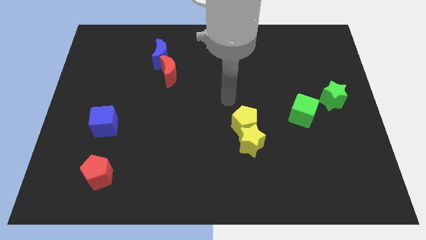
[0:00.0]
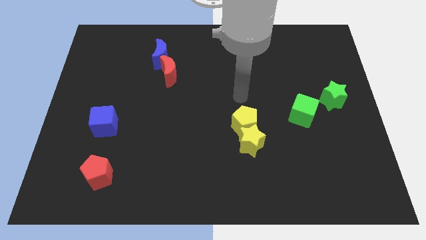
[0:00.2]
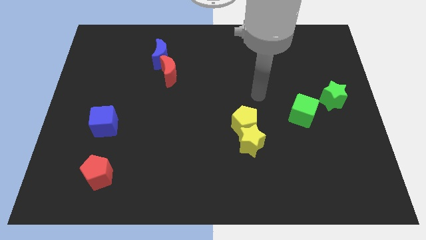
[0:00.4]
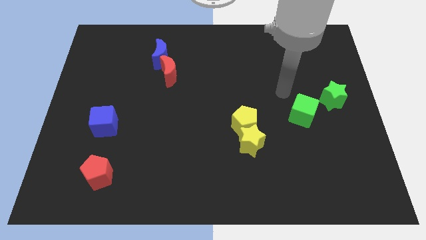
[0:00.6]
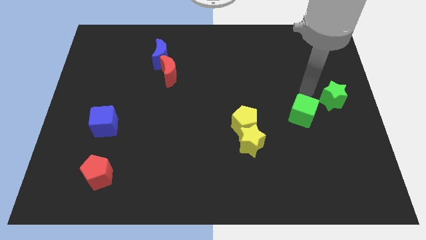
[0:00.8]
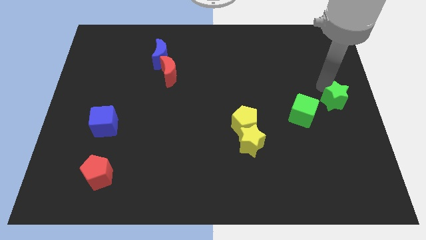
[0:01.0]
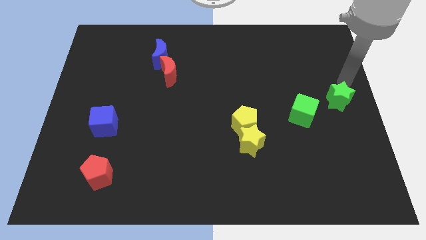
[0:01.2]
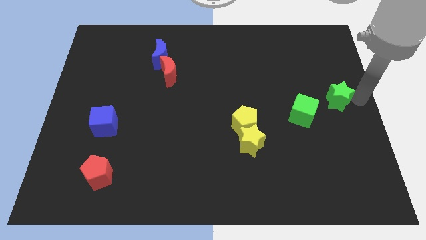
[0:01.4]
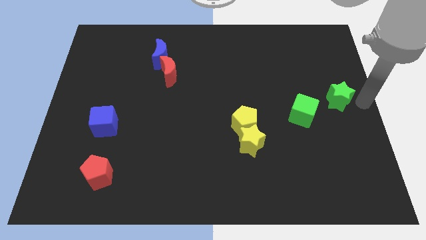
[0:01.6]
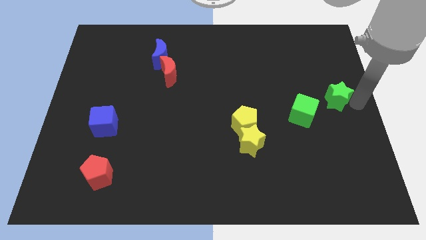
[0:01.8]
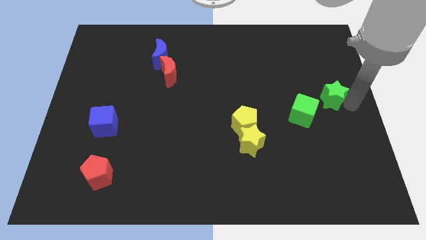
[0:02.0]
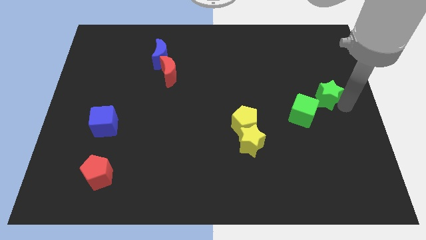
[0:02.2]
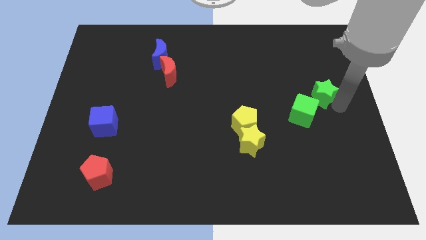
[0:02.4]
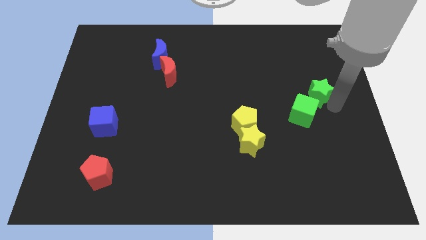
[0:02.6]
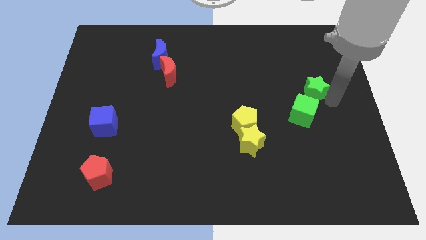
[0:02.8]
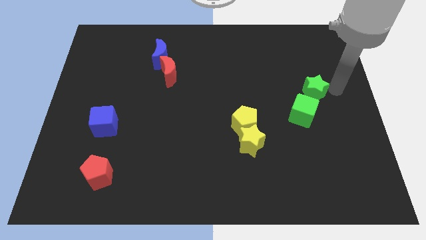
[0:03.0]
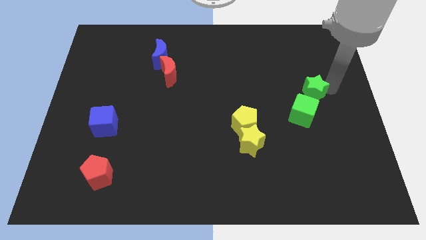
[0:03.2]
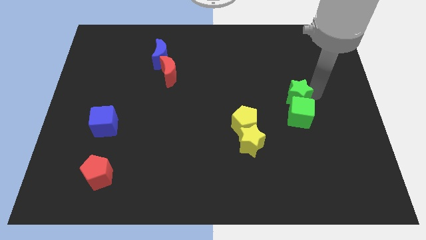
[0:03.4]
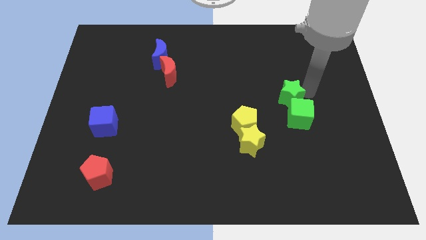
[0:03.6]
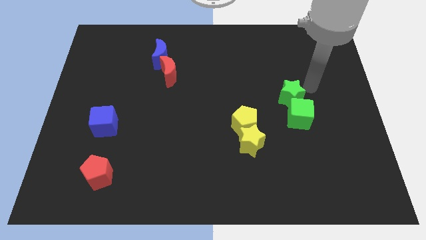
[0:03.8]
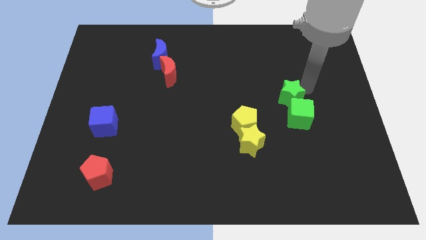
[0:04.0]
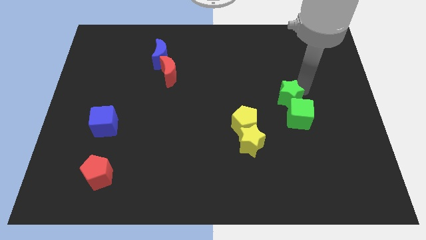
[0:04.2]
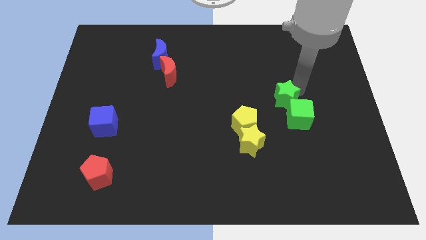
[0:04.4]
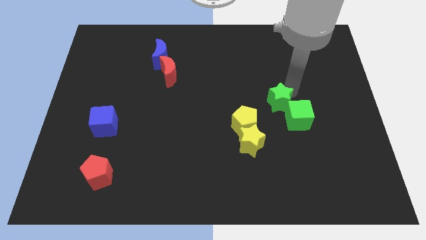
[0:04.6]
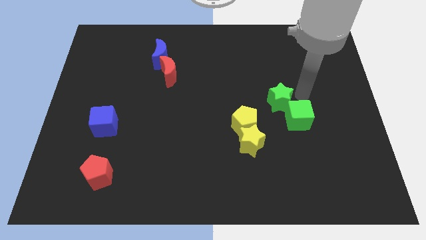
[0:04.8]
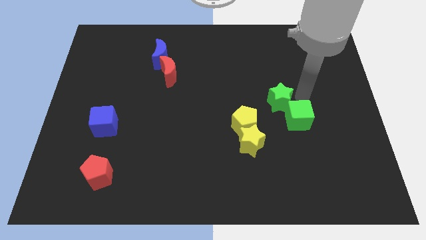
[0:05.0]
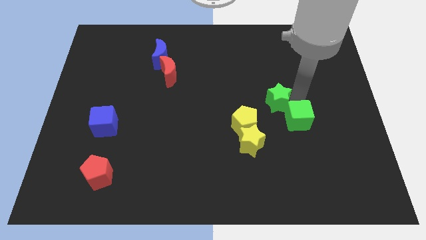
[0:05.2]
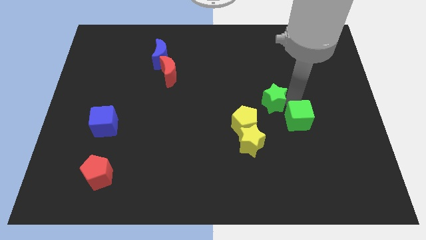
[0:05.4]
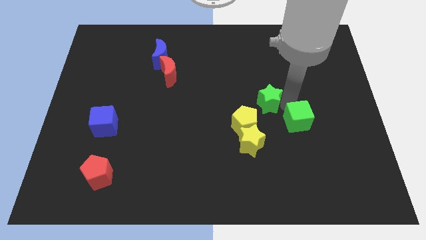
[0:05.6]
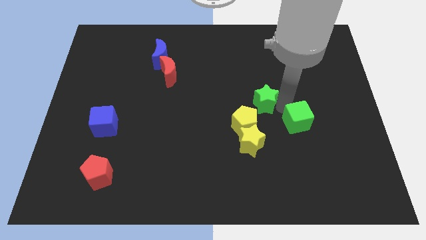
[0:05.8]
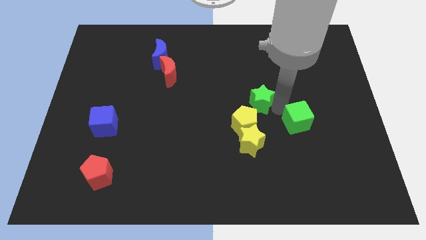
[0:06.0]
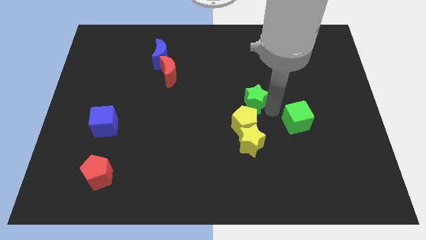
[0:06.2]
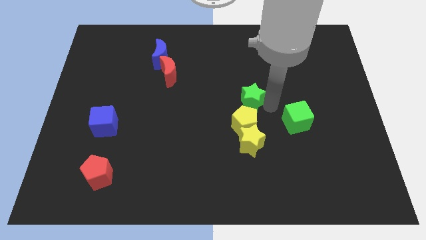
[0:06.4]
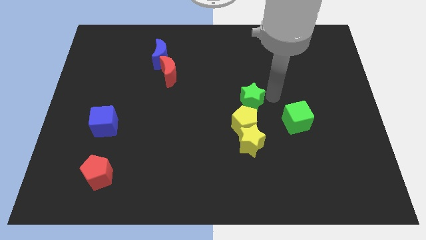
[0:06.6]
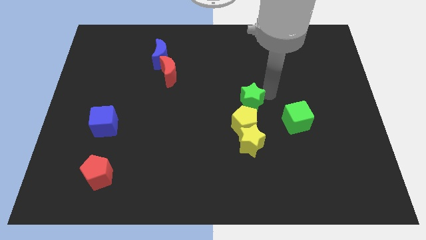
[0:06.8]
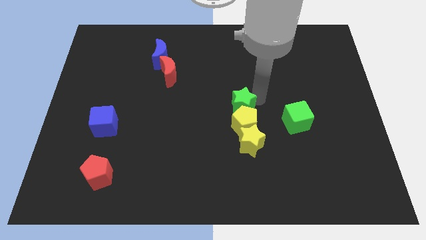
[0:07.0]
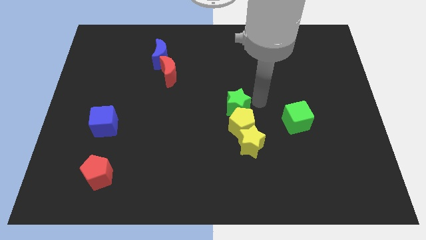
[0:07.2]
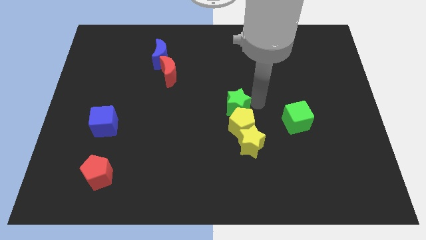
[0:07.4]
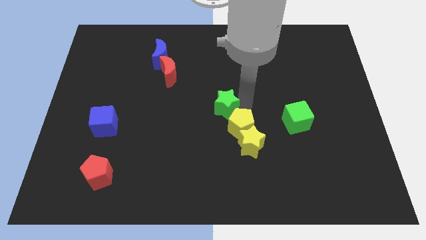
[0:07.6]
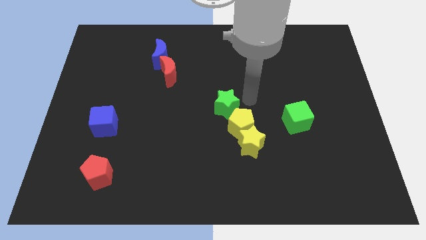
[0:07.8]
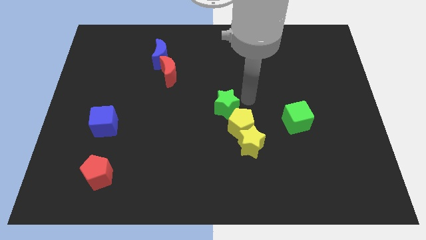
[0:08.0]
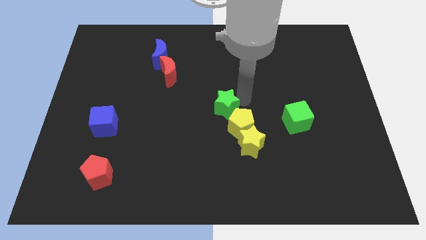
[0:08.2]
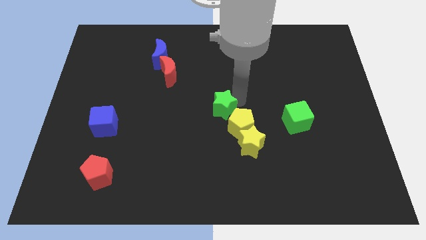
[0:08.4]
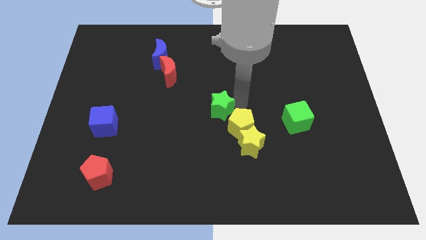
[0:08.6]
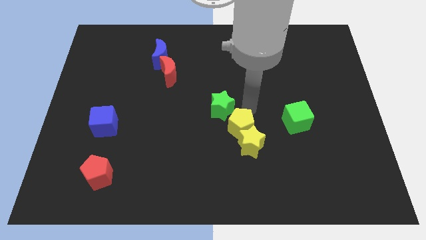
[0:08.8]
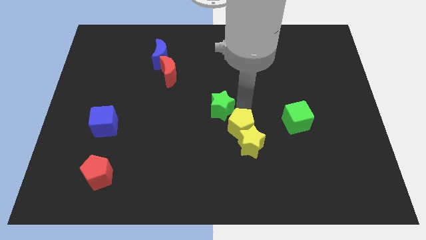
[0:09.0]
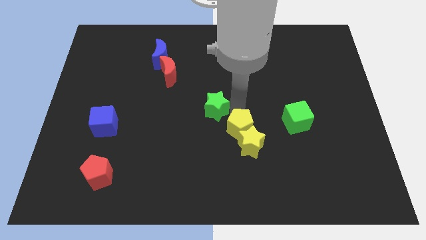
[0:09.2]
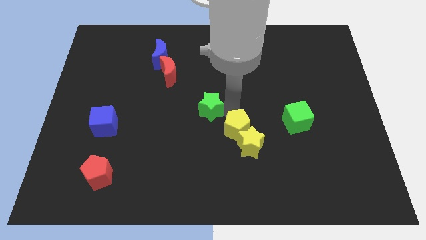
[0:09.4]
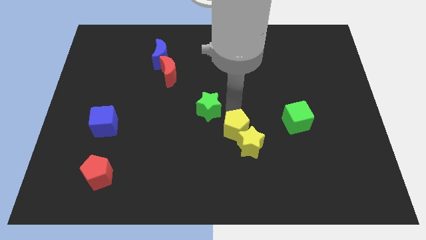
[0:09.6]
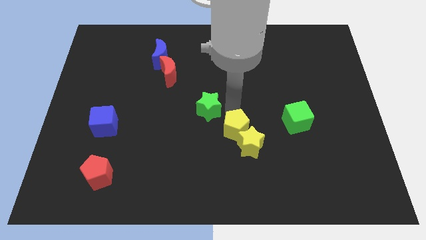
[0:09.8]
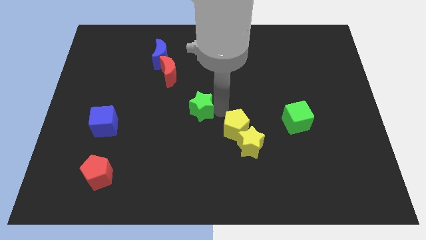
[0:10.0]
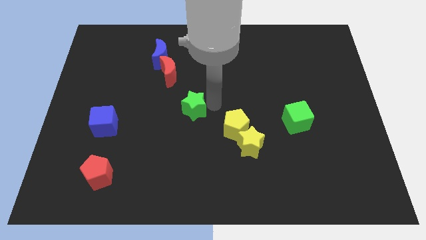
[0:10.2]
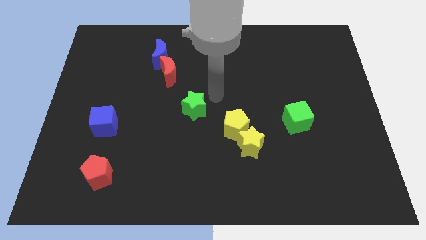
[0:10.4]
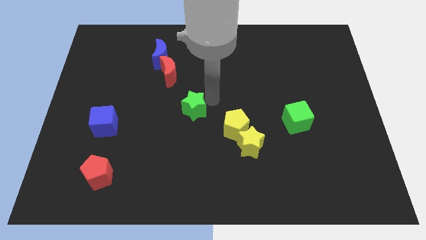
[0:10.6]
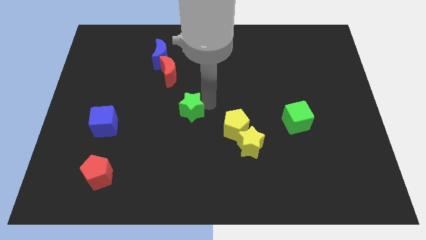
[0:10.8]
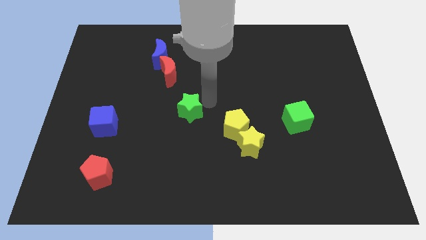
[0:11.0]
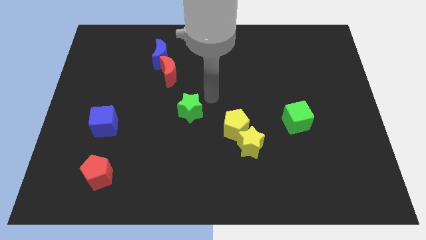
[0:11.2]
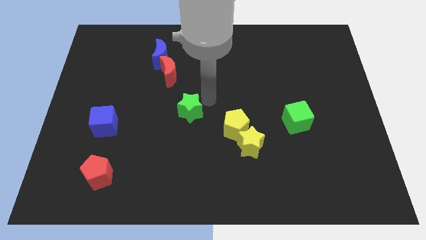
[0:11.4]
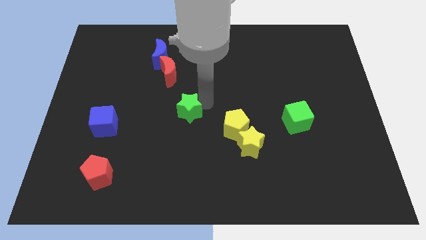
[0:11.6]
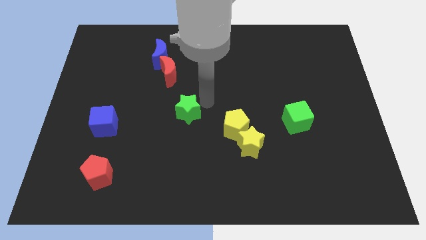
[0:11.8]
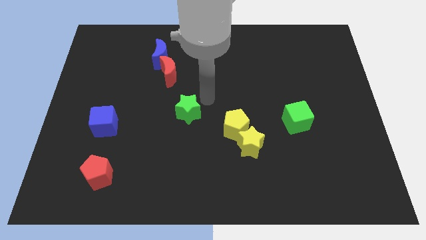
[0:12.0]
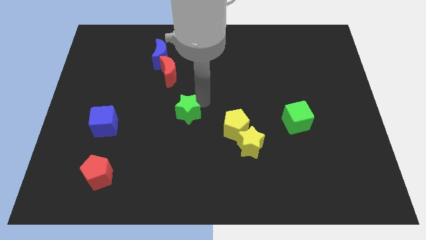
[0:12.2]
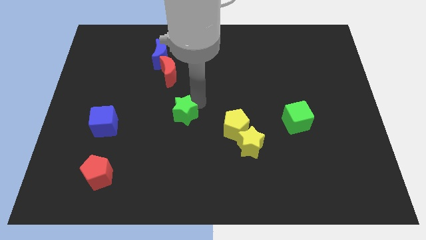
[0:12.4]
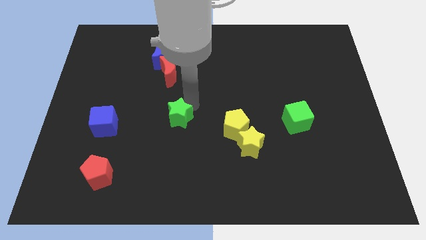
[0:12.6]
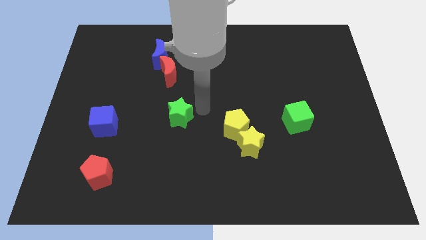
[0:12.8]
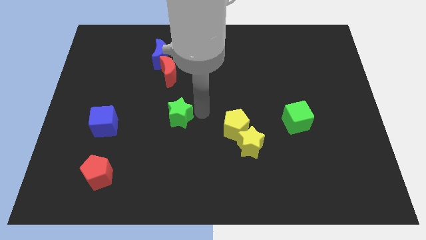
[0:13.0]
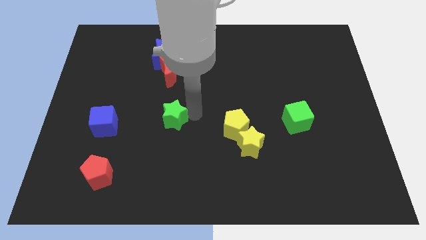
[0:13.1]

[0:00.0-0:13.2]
push the green star to the right side of the blue cube
